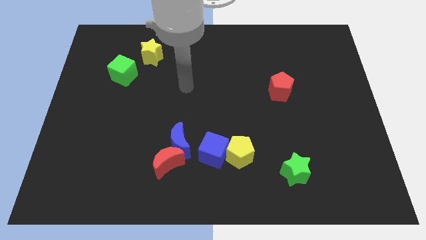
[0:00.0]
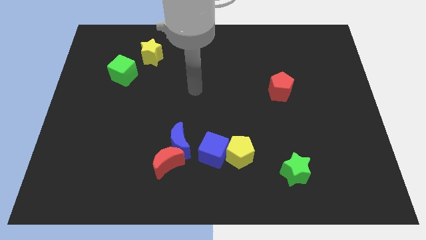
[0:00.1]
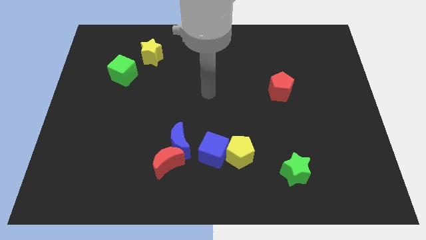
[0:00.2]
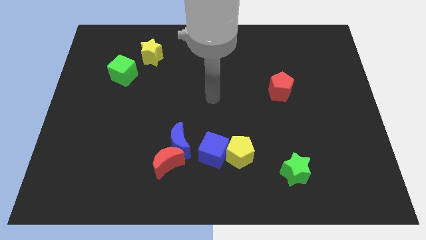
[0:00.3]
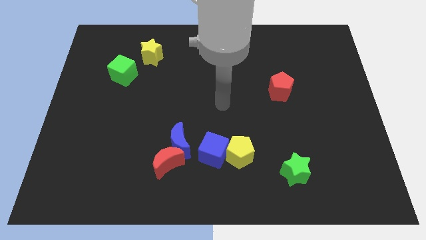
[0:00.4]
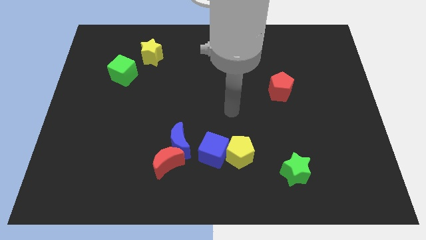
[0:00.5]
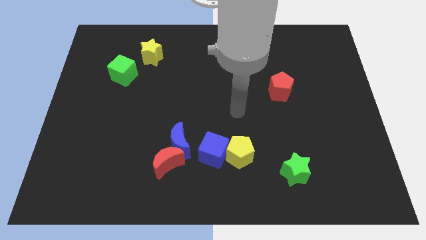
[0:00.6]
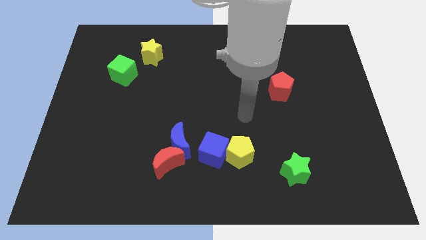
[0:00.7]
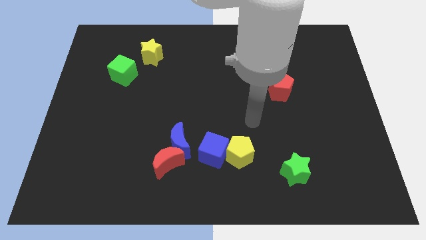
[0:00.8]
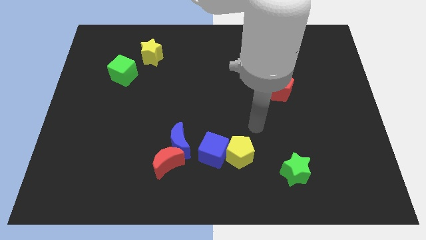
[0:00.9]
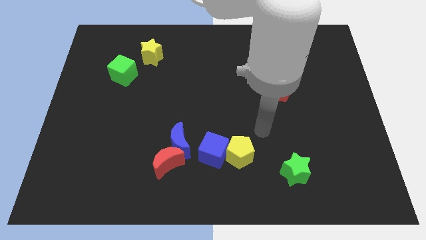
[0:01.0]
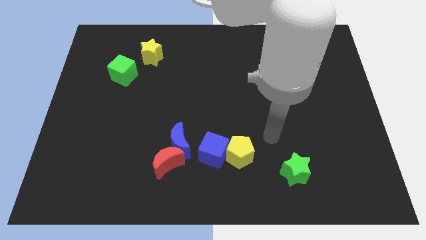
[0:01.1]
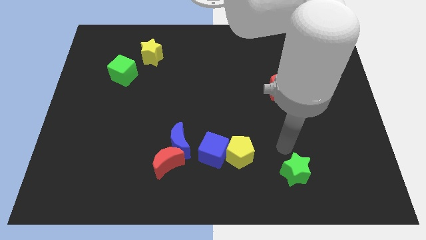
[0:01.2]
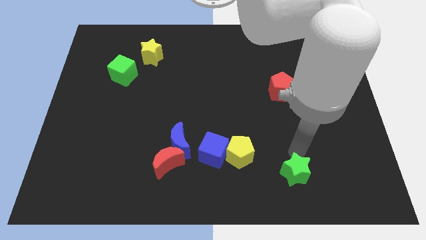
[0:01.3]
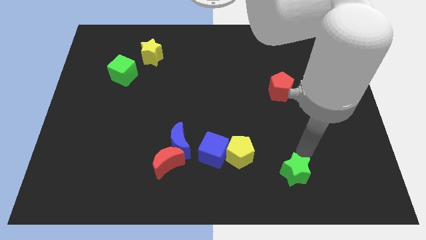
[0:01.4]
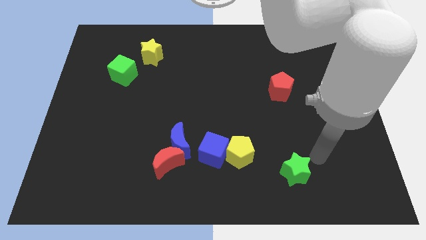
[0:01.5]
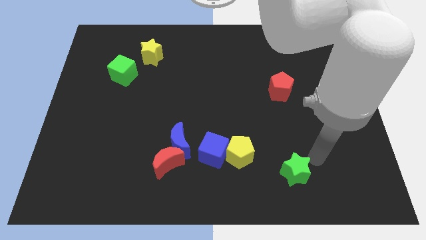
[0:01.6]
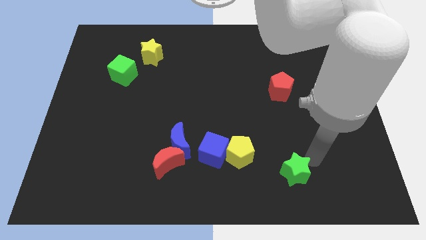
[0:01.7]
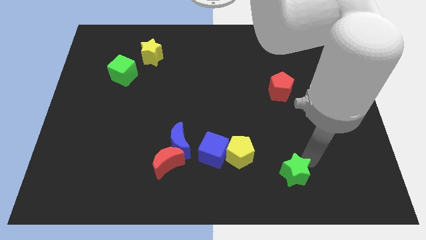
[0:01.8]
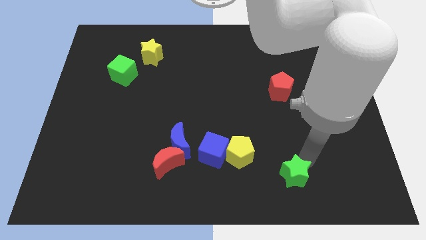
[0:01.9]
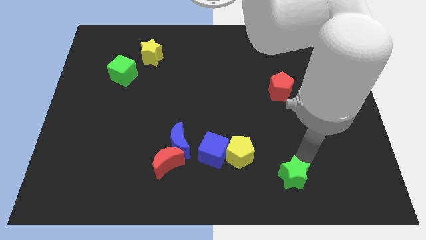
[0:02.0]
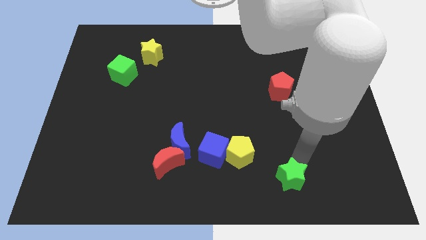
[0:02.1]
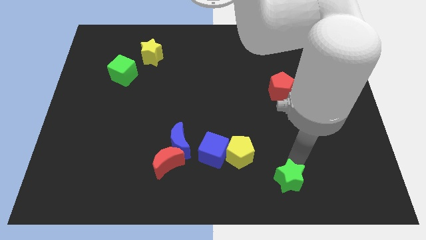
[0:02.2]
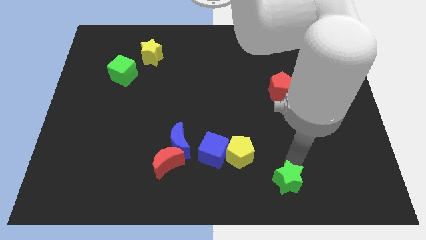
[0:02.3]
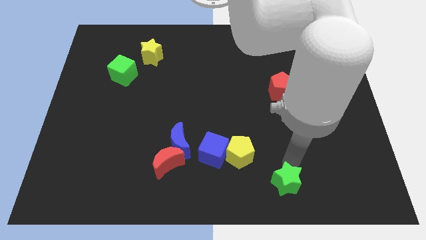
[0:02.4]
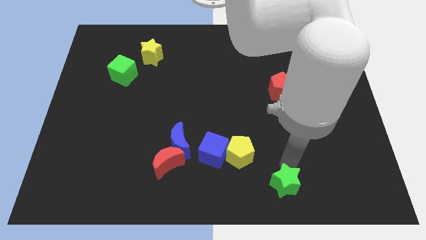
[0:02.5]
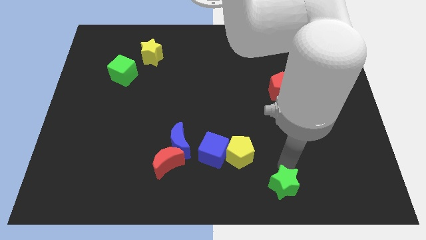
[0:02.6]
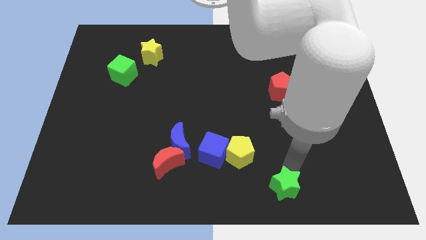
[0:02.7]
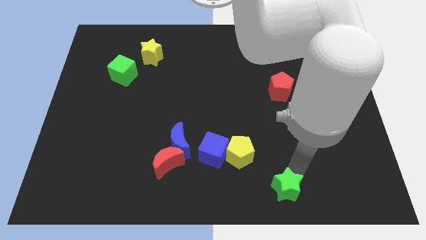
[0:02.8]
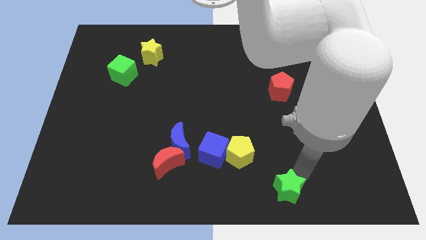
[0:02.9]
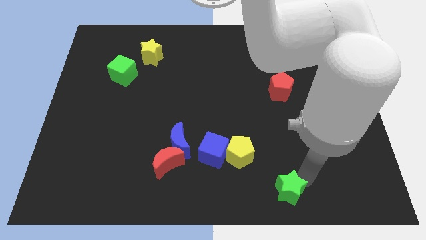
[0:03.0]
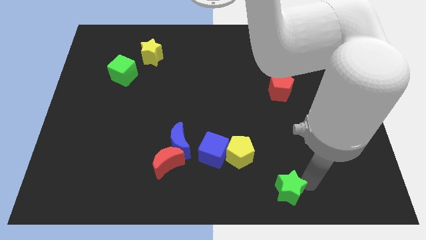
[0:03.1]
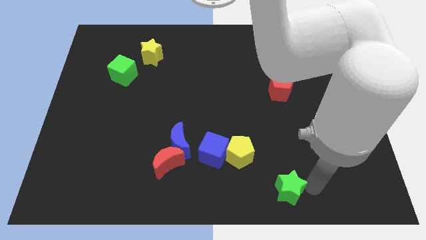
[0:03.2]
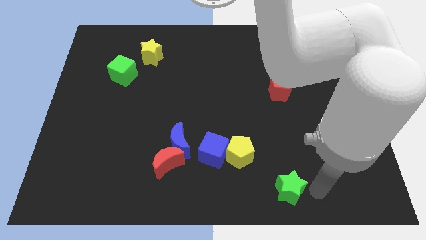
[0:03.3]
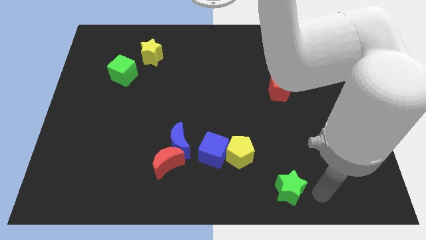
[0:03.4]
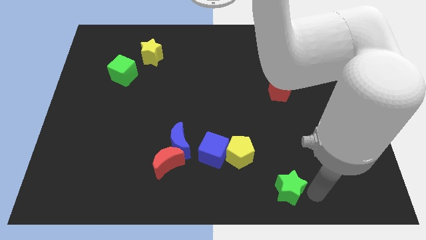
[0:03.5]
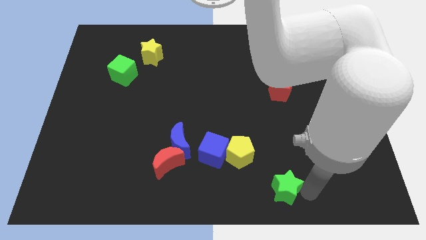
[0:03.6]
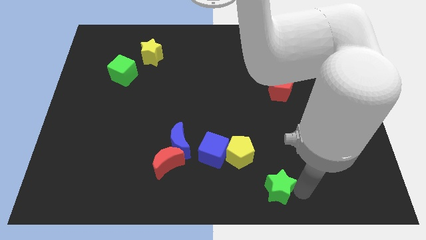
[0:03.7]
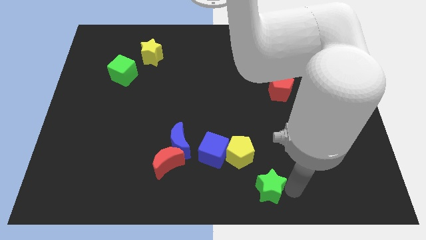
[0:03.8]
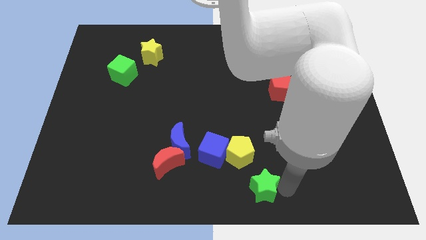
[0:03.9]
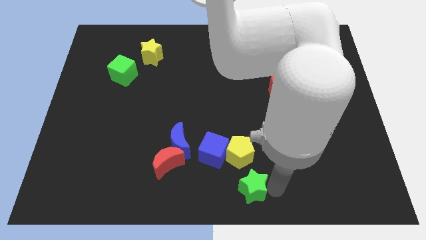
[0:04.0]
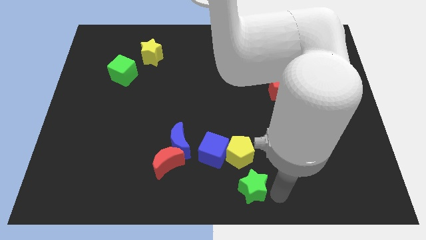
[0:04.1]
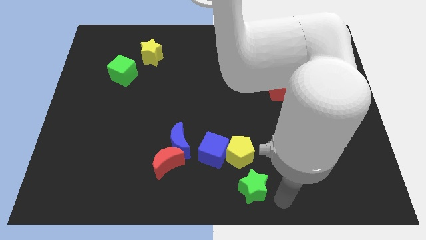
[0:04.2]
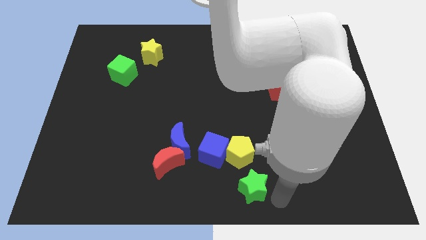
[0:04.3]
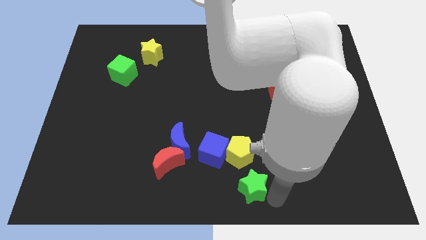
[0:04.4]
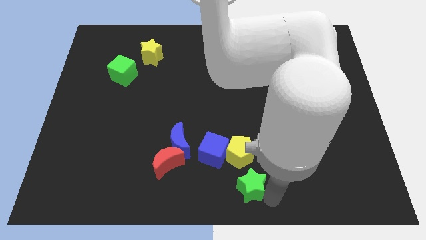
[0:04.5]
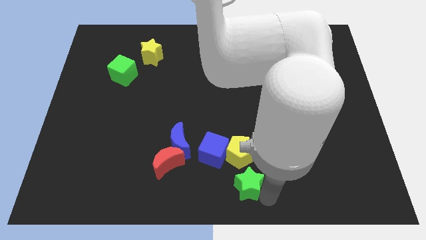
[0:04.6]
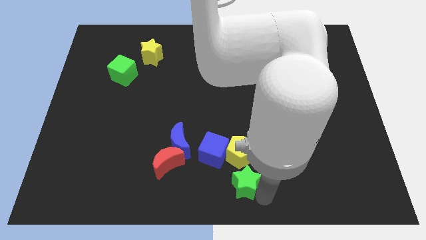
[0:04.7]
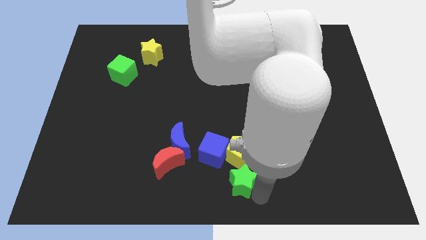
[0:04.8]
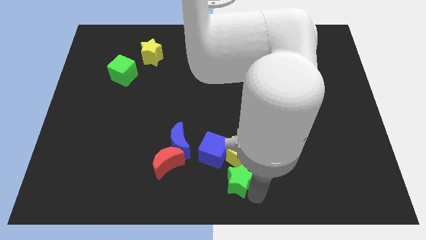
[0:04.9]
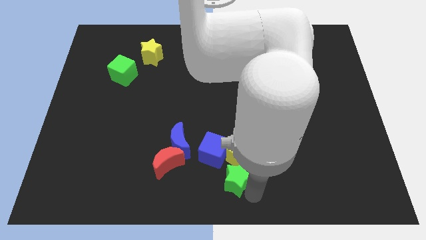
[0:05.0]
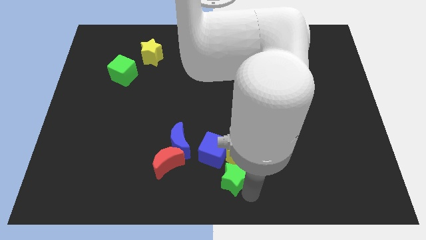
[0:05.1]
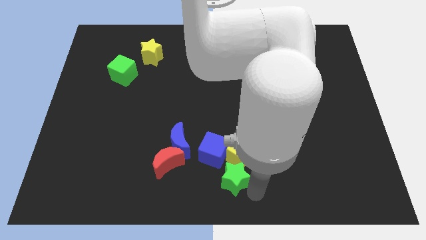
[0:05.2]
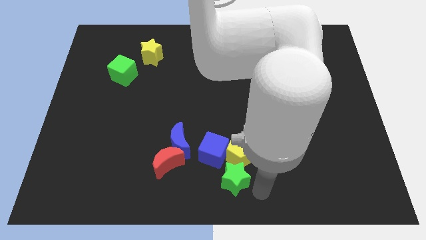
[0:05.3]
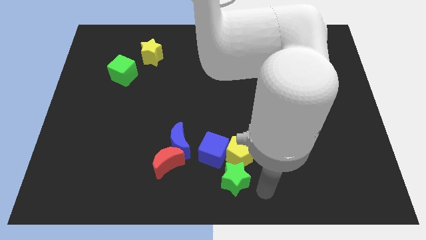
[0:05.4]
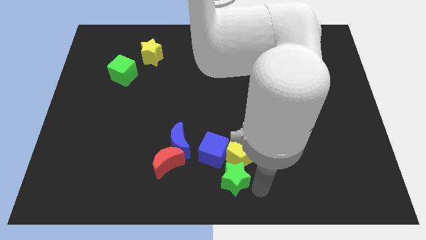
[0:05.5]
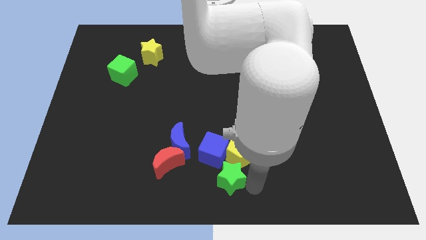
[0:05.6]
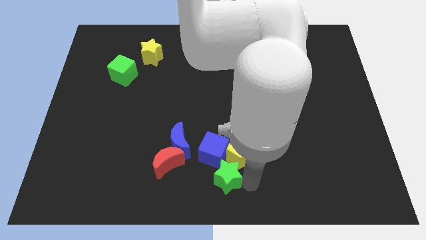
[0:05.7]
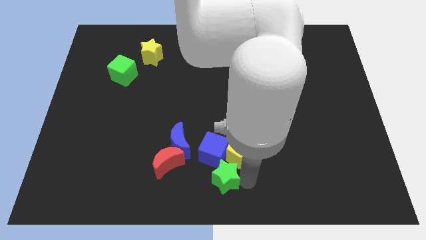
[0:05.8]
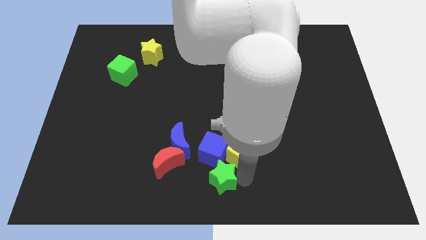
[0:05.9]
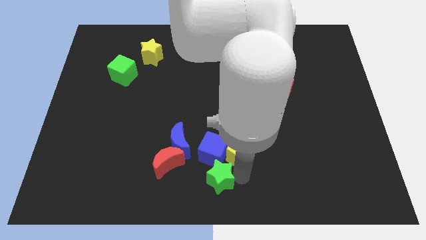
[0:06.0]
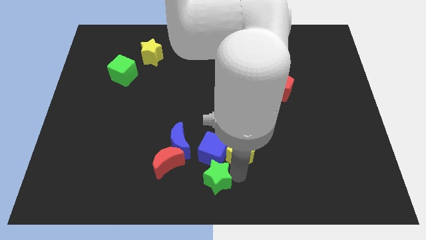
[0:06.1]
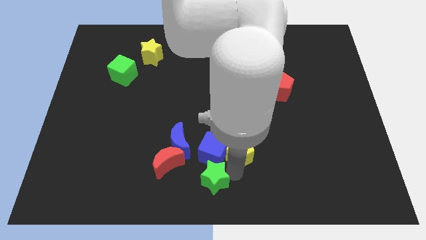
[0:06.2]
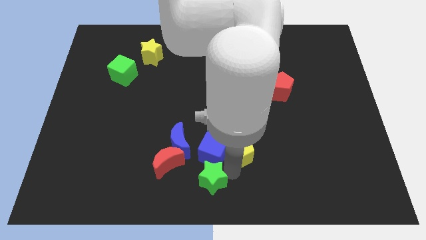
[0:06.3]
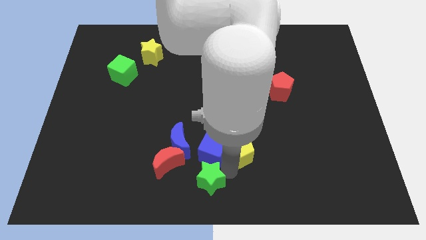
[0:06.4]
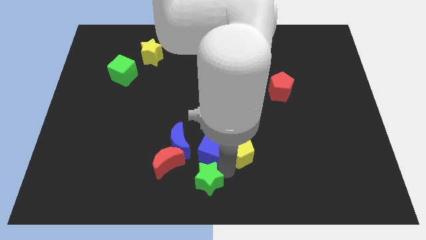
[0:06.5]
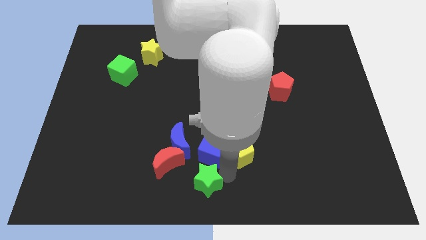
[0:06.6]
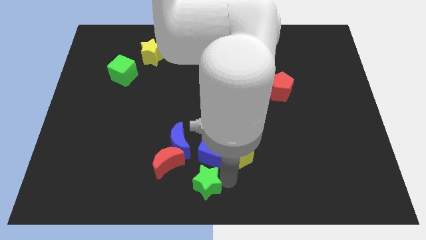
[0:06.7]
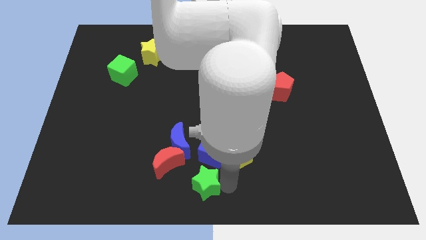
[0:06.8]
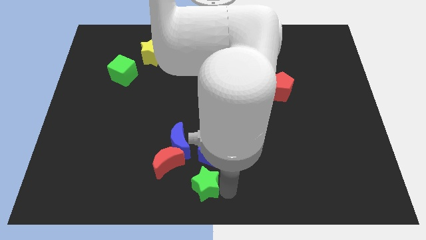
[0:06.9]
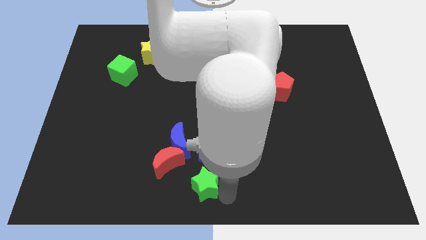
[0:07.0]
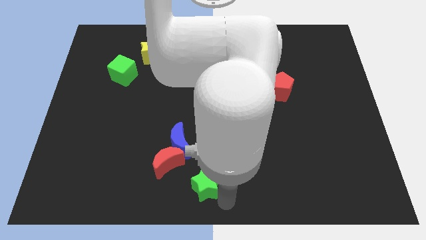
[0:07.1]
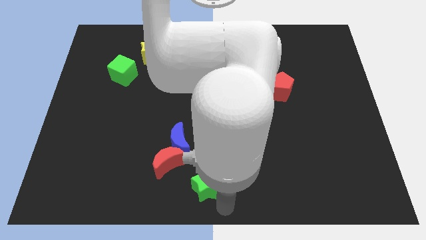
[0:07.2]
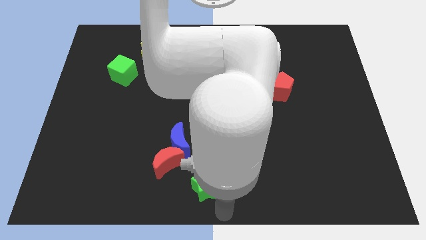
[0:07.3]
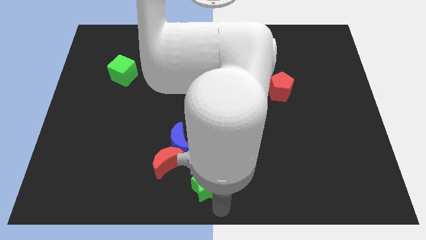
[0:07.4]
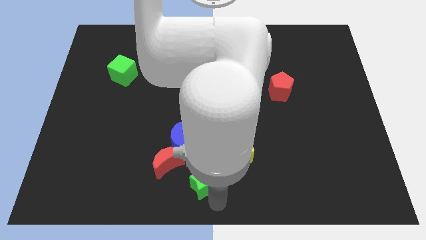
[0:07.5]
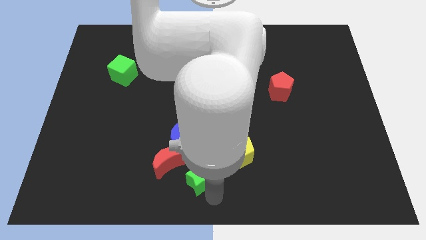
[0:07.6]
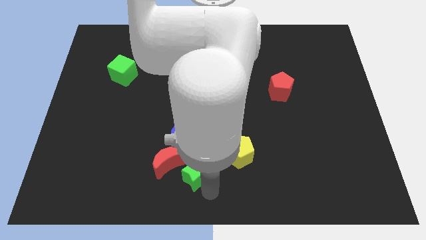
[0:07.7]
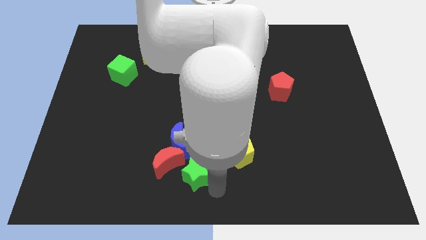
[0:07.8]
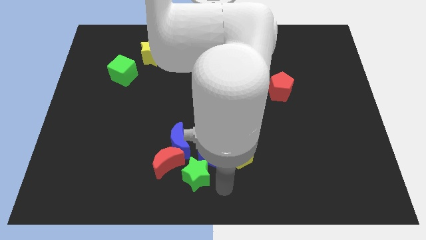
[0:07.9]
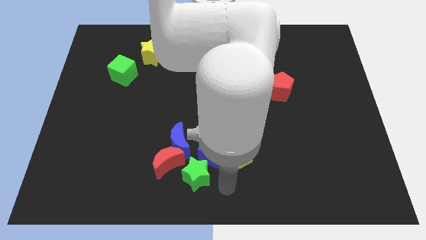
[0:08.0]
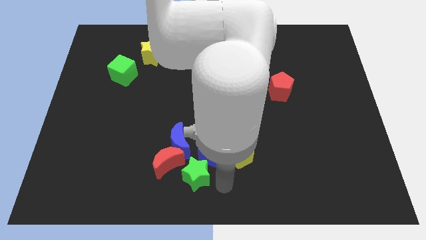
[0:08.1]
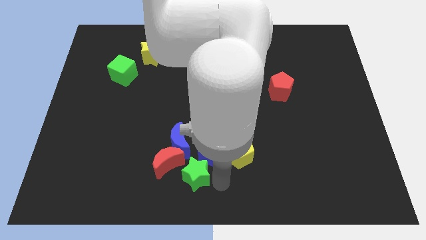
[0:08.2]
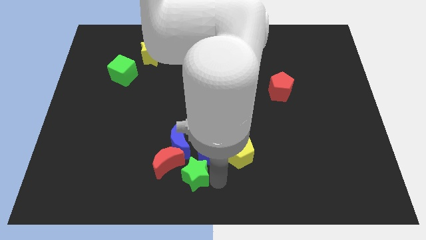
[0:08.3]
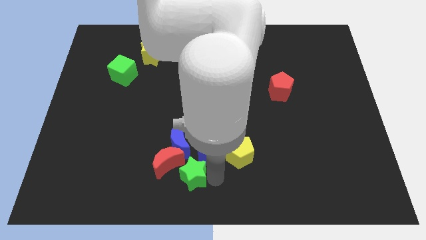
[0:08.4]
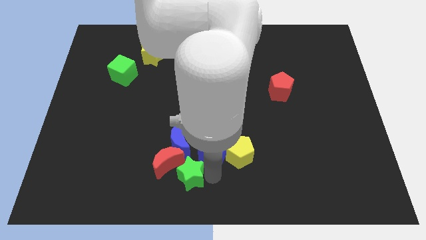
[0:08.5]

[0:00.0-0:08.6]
put the green star towards the red moon
